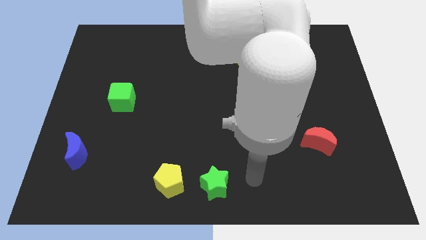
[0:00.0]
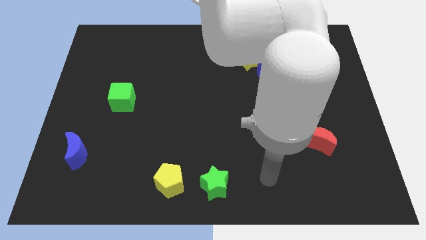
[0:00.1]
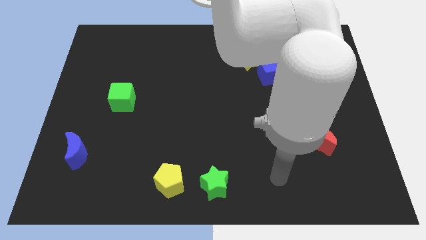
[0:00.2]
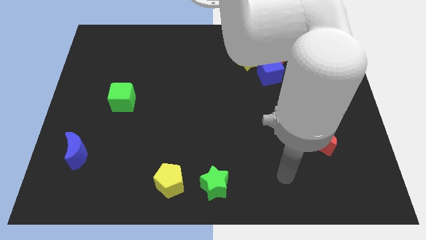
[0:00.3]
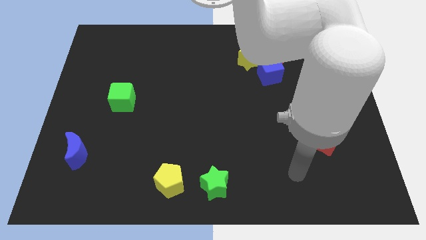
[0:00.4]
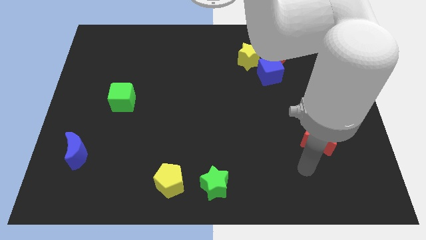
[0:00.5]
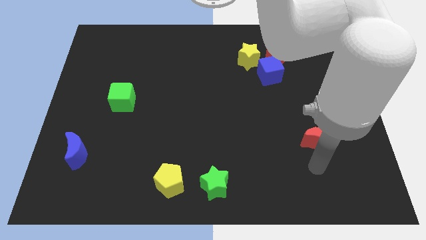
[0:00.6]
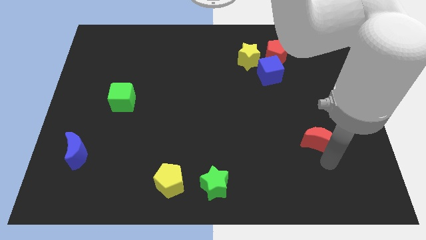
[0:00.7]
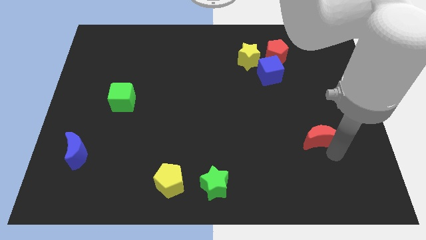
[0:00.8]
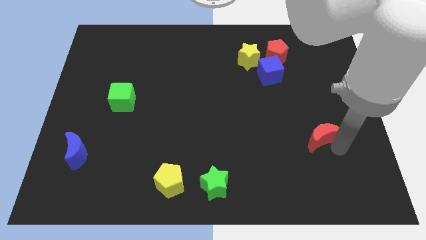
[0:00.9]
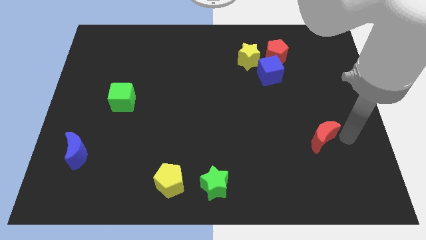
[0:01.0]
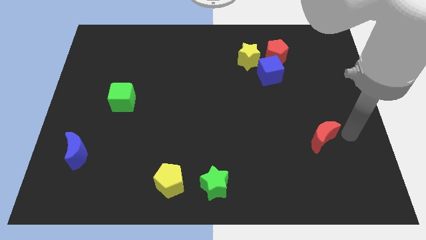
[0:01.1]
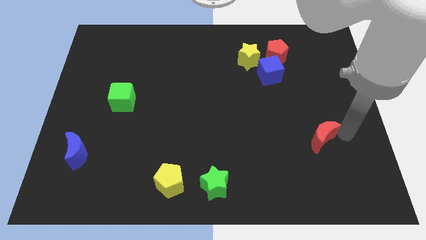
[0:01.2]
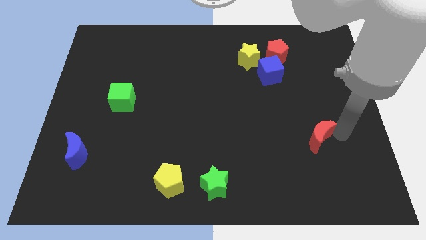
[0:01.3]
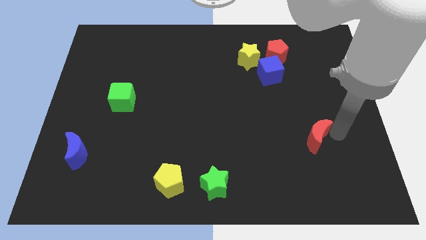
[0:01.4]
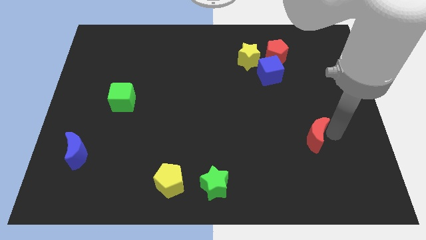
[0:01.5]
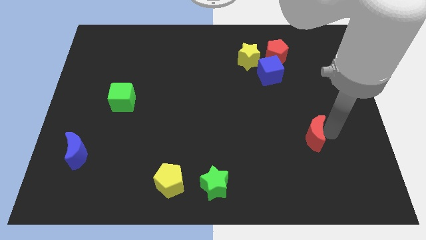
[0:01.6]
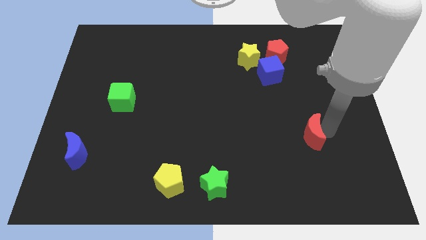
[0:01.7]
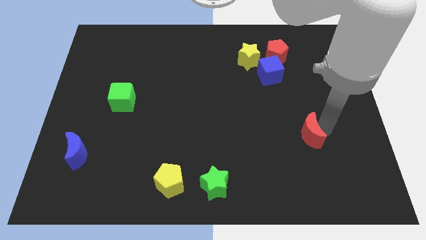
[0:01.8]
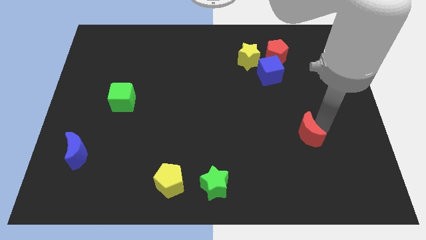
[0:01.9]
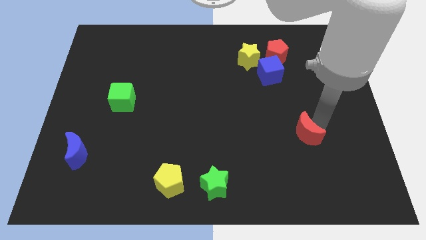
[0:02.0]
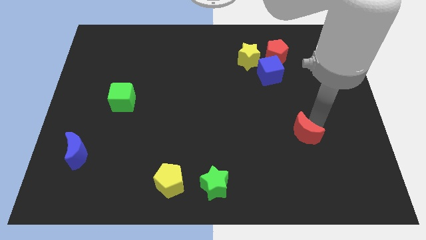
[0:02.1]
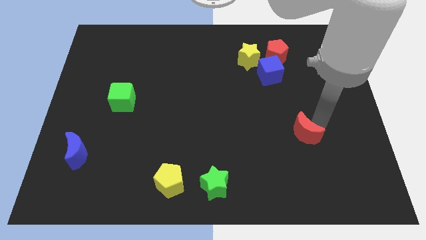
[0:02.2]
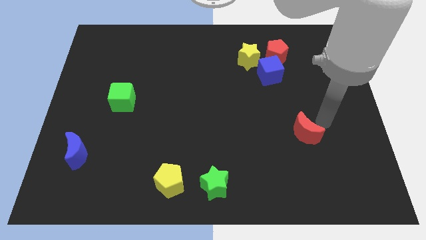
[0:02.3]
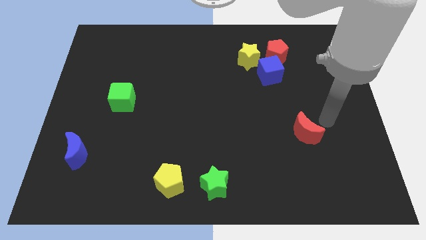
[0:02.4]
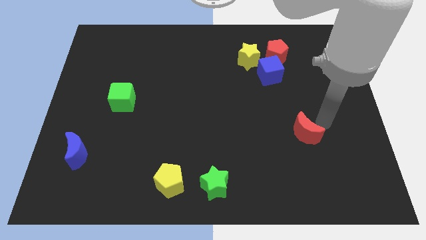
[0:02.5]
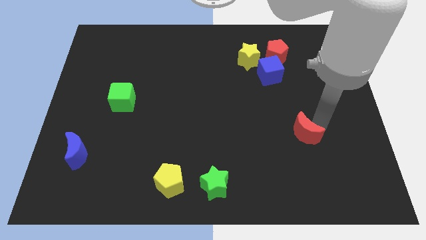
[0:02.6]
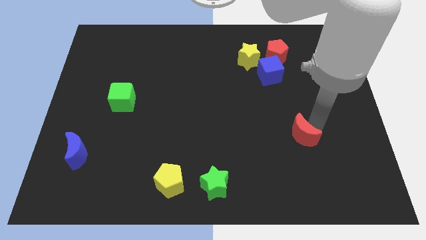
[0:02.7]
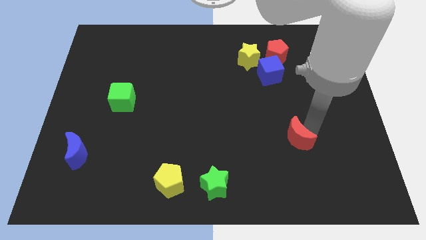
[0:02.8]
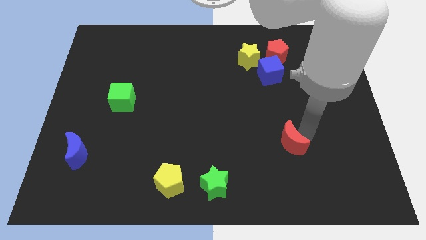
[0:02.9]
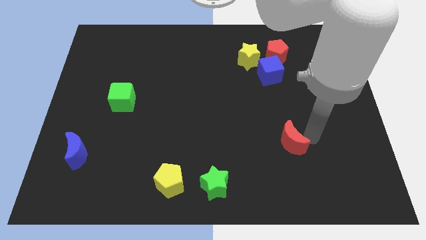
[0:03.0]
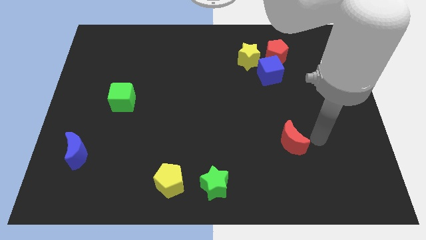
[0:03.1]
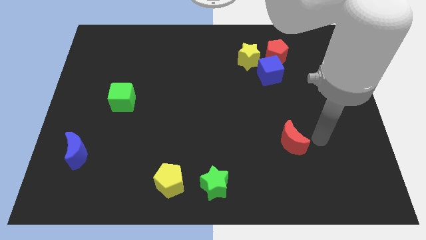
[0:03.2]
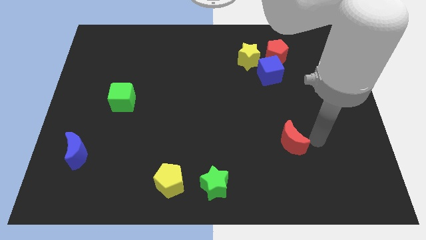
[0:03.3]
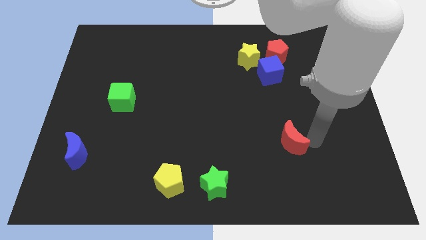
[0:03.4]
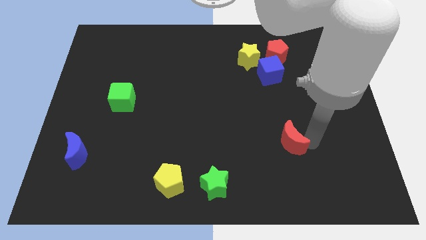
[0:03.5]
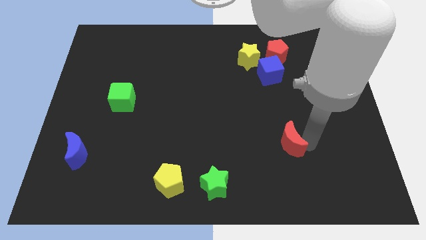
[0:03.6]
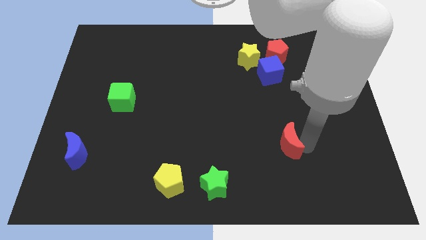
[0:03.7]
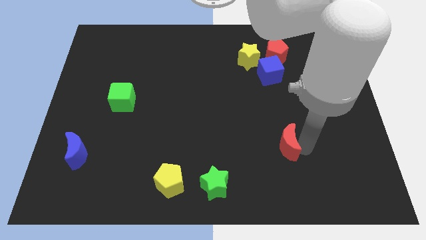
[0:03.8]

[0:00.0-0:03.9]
push the red moon to the left a little bit

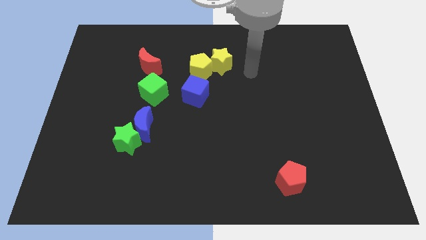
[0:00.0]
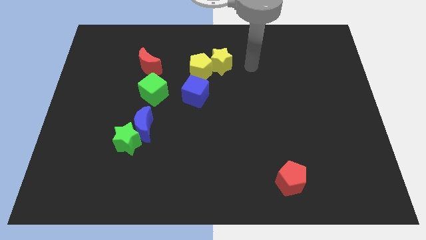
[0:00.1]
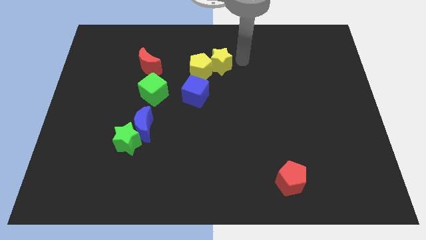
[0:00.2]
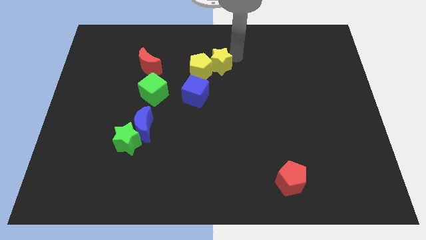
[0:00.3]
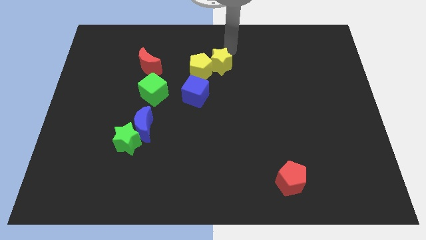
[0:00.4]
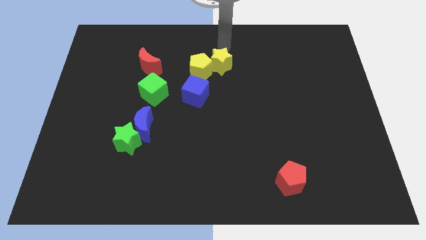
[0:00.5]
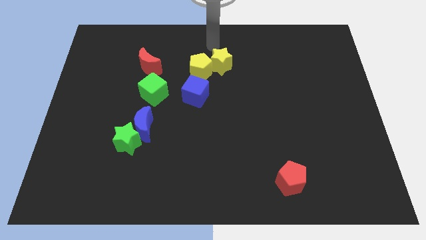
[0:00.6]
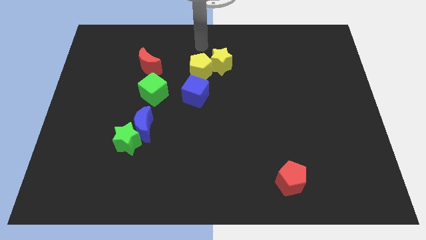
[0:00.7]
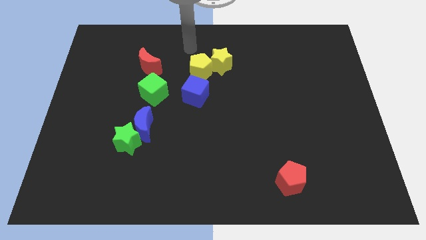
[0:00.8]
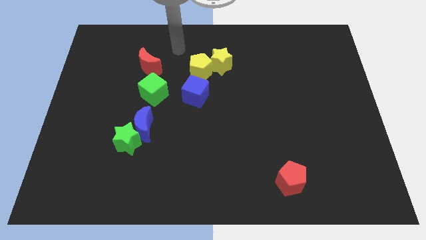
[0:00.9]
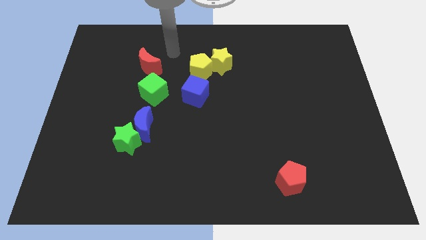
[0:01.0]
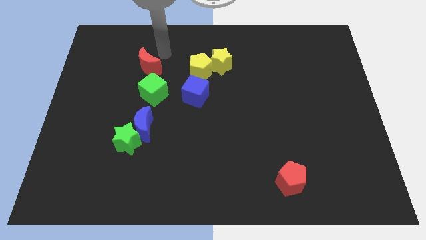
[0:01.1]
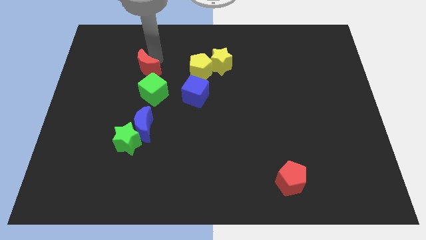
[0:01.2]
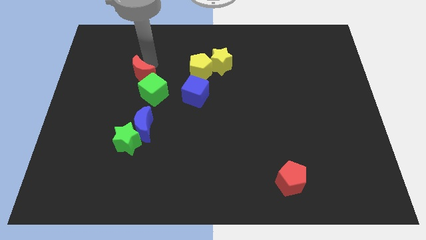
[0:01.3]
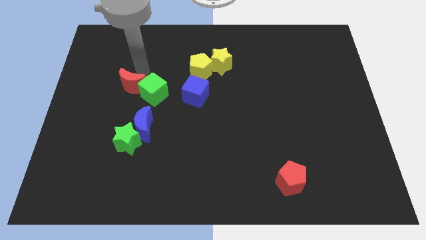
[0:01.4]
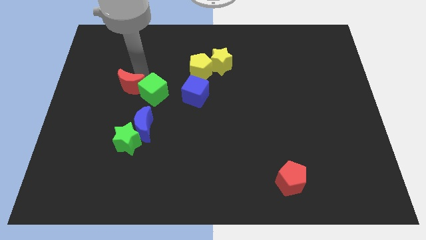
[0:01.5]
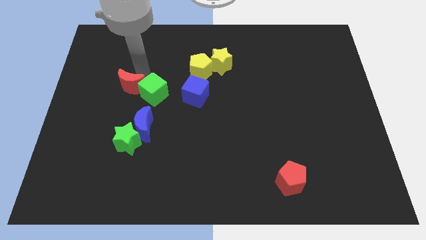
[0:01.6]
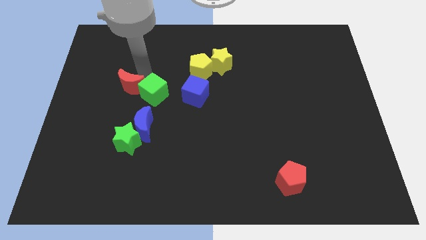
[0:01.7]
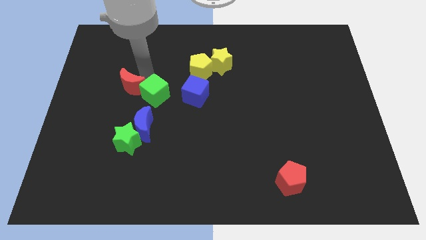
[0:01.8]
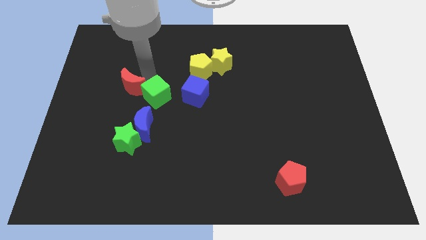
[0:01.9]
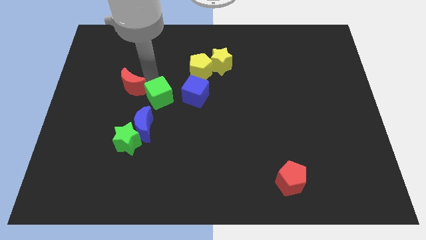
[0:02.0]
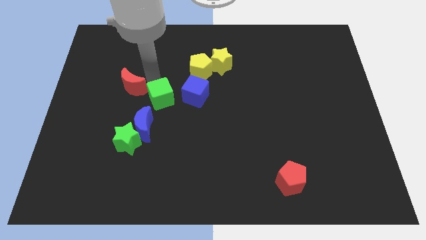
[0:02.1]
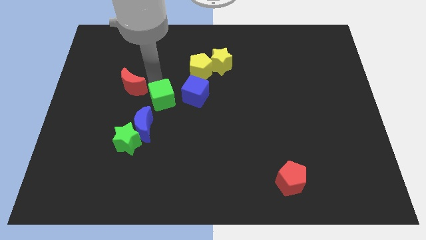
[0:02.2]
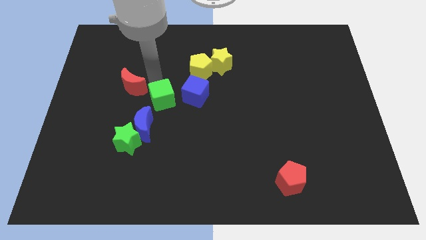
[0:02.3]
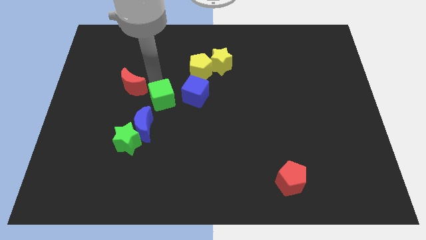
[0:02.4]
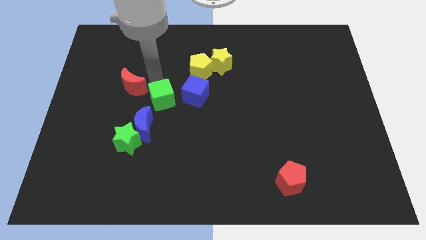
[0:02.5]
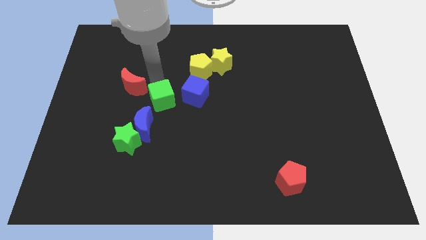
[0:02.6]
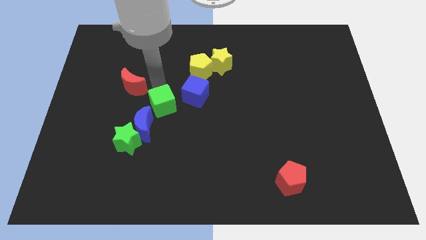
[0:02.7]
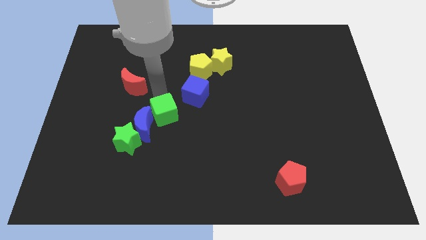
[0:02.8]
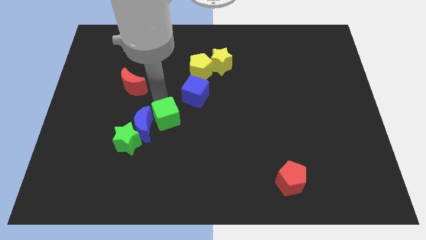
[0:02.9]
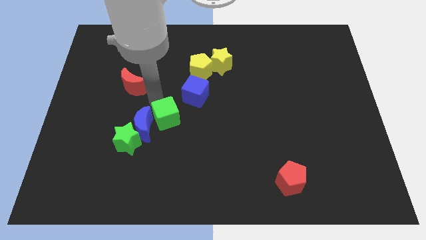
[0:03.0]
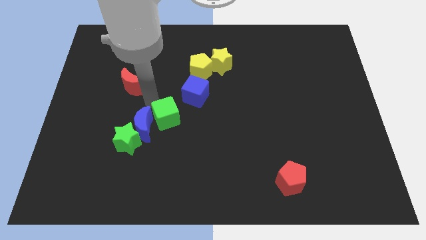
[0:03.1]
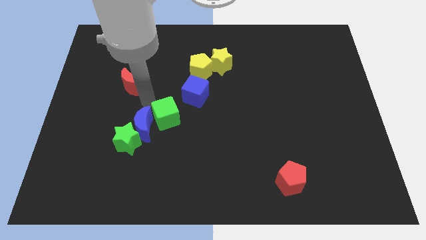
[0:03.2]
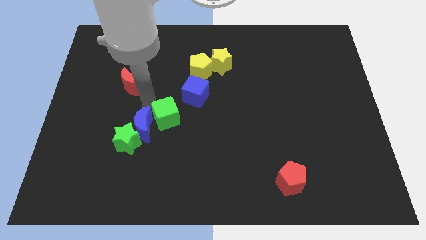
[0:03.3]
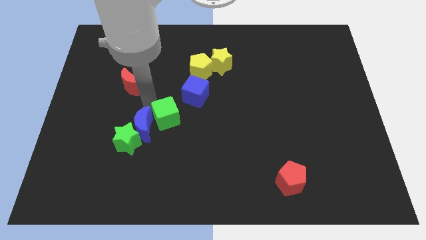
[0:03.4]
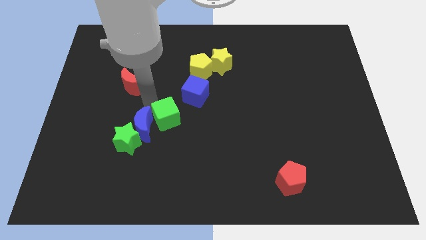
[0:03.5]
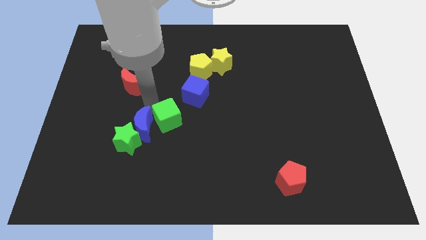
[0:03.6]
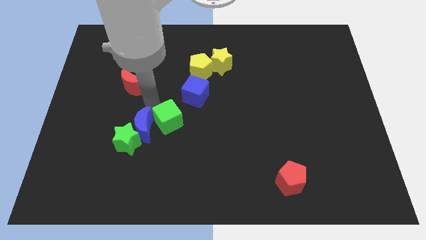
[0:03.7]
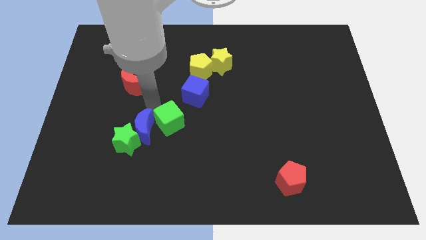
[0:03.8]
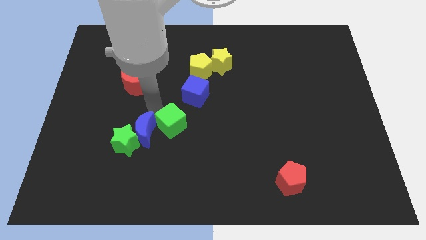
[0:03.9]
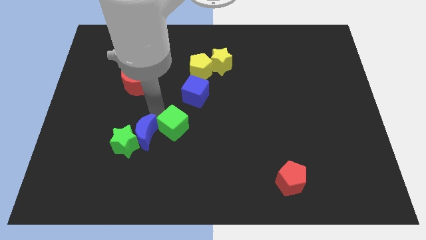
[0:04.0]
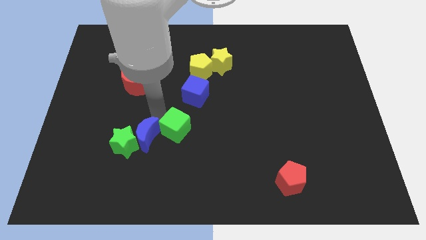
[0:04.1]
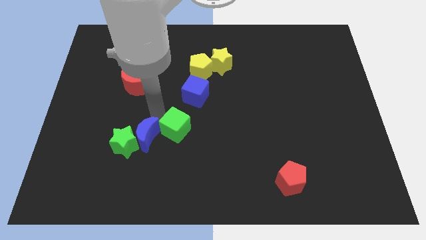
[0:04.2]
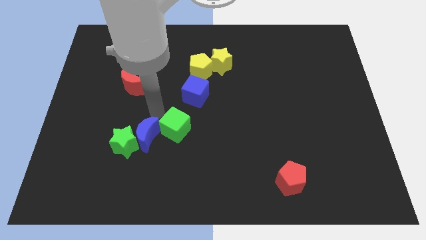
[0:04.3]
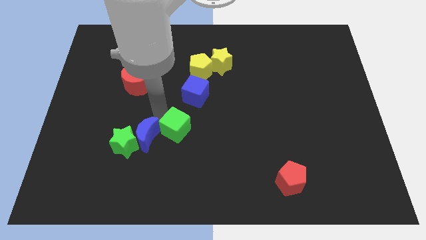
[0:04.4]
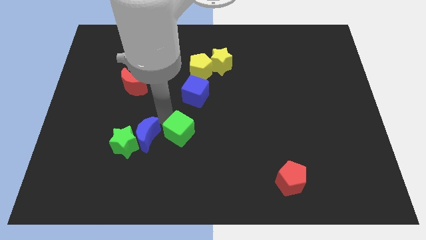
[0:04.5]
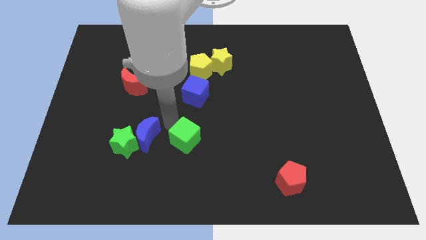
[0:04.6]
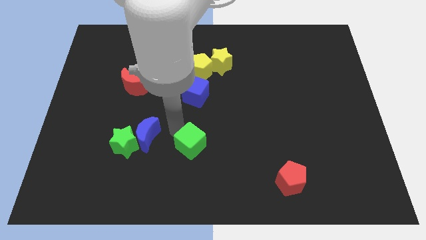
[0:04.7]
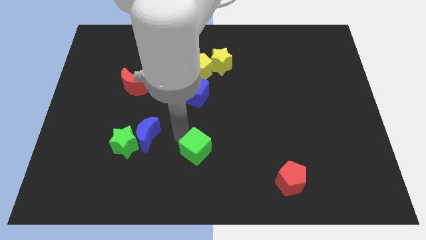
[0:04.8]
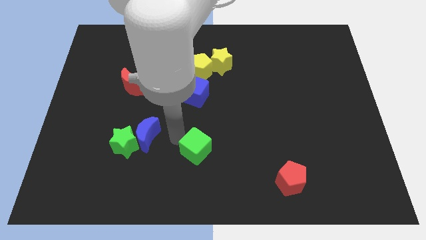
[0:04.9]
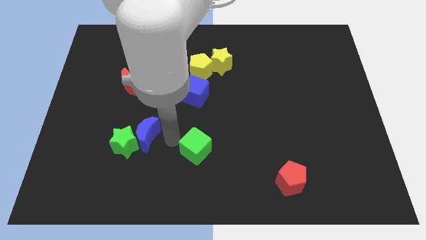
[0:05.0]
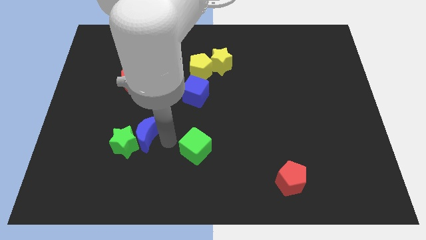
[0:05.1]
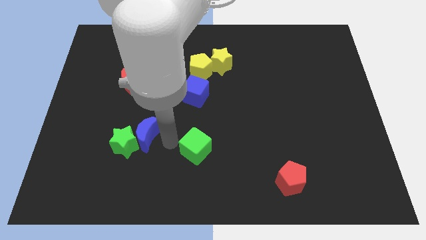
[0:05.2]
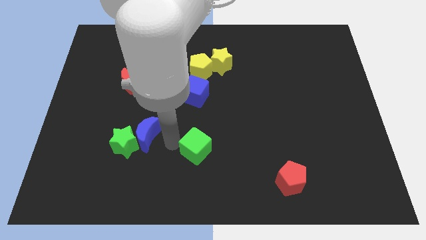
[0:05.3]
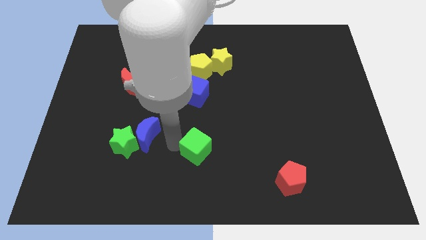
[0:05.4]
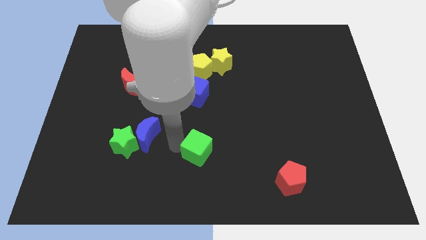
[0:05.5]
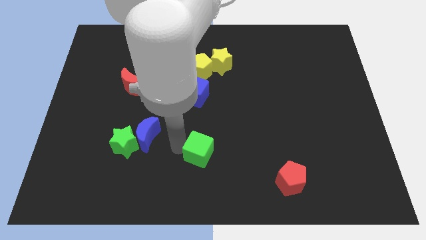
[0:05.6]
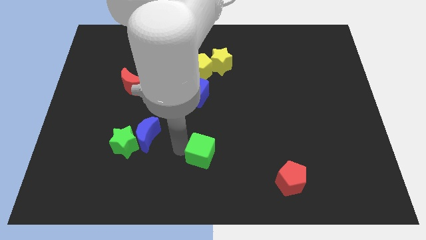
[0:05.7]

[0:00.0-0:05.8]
push the green cube downwards and then to the right
